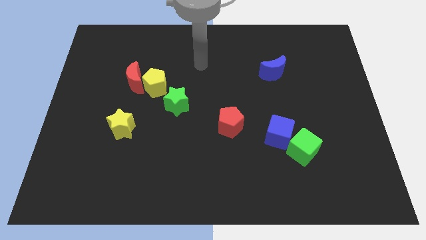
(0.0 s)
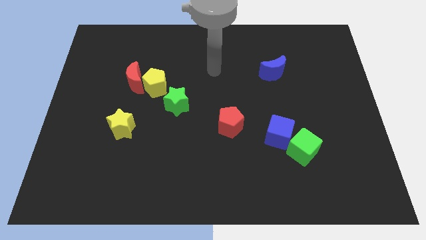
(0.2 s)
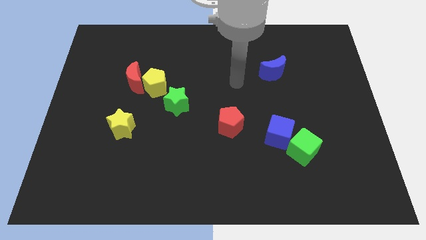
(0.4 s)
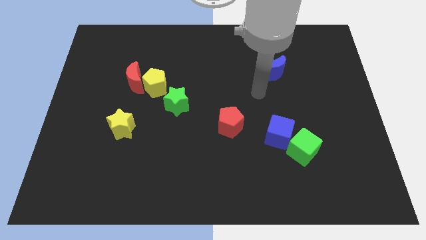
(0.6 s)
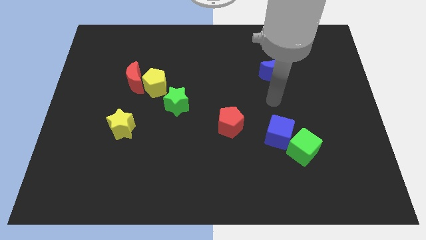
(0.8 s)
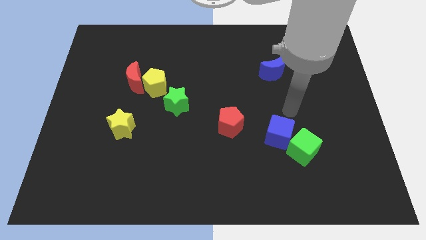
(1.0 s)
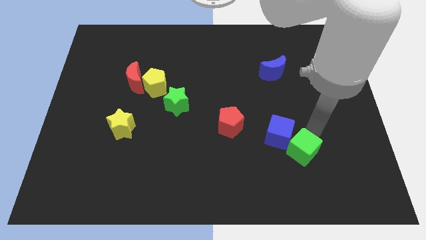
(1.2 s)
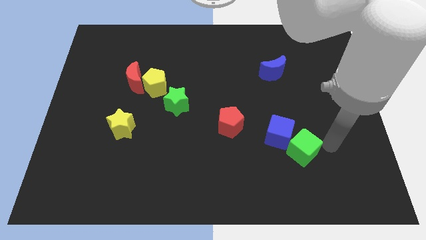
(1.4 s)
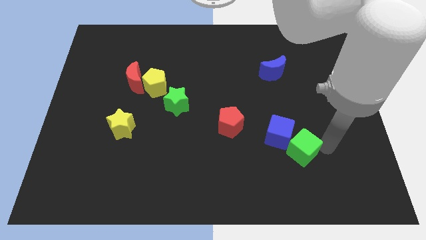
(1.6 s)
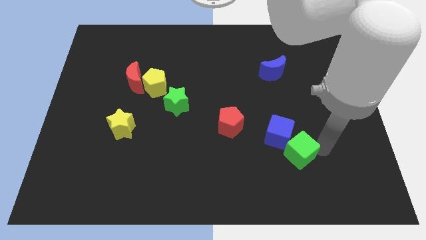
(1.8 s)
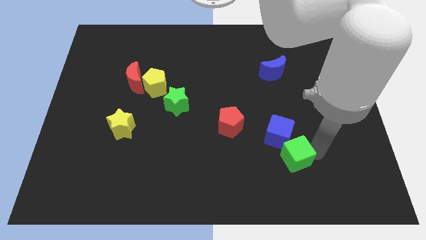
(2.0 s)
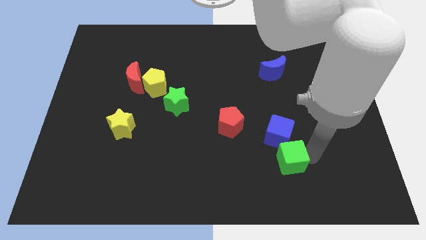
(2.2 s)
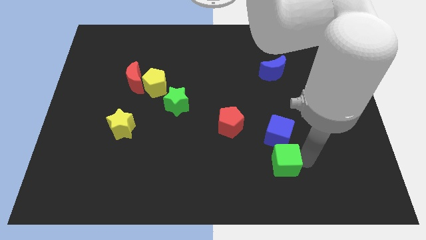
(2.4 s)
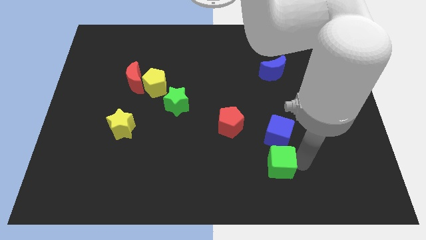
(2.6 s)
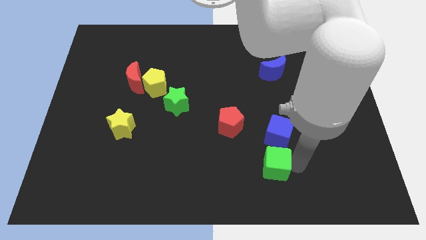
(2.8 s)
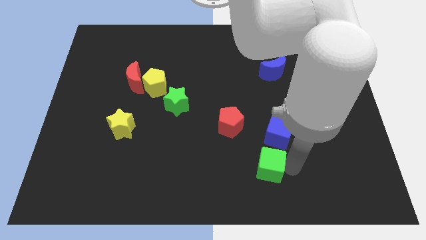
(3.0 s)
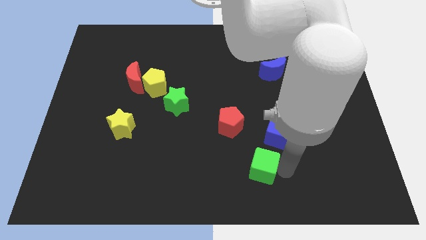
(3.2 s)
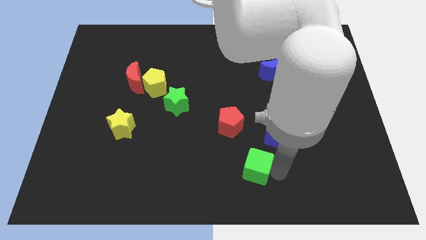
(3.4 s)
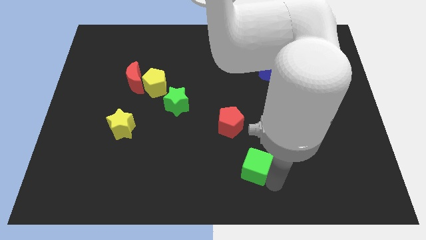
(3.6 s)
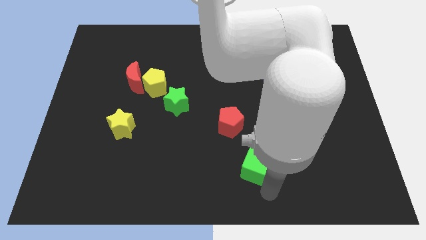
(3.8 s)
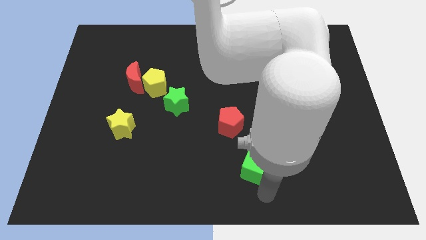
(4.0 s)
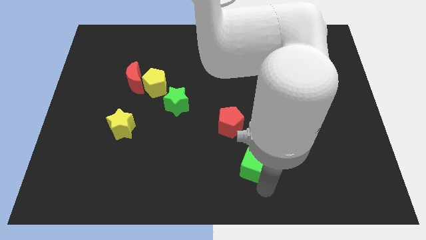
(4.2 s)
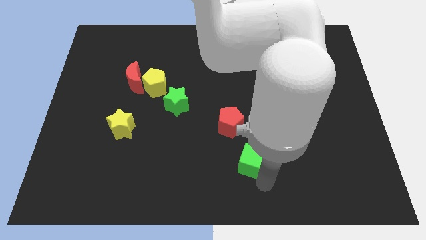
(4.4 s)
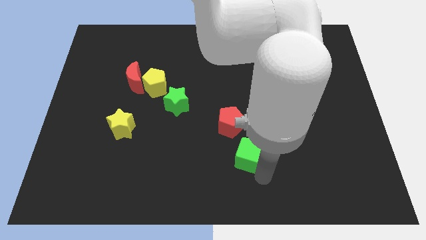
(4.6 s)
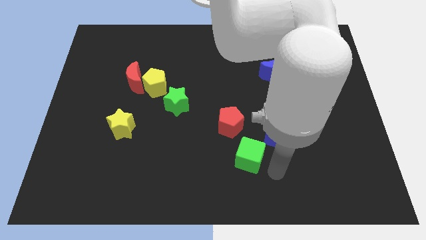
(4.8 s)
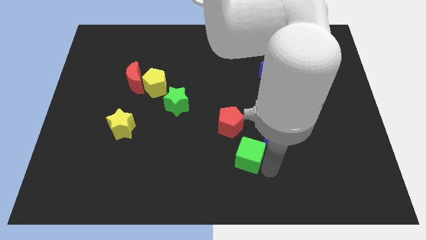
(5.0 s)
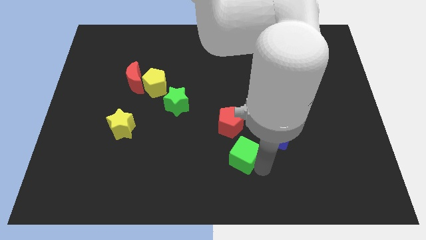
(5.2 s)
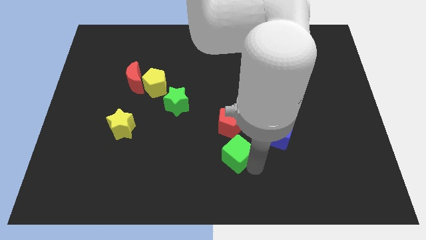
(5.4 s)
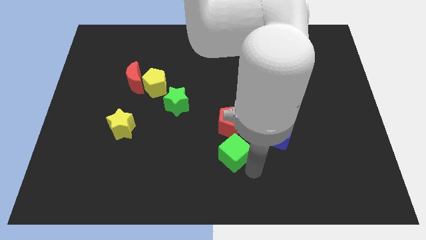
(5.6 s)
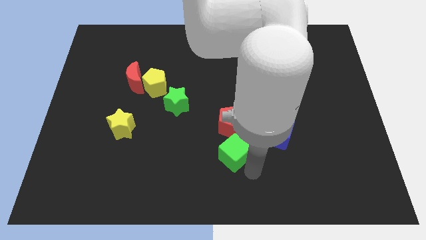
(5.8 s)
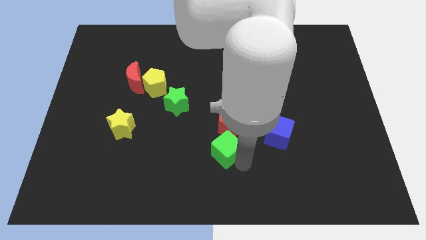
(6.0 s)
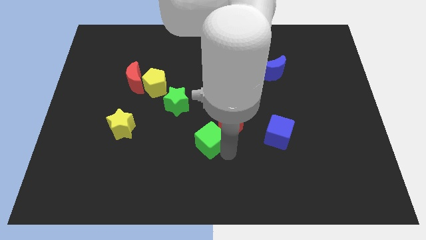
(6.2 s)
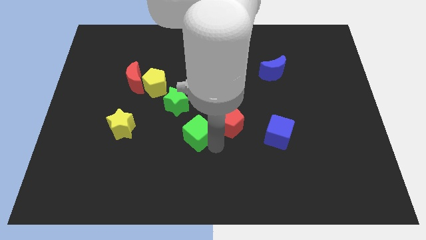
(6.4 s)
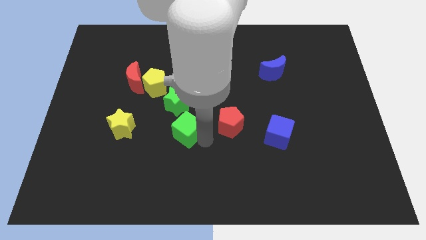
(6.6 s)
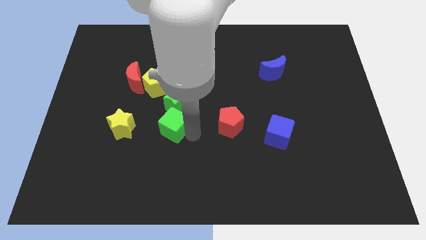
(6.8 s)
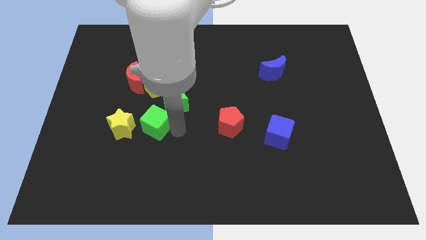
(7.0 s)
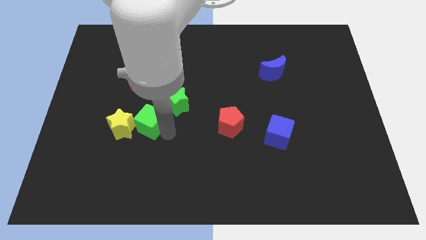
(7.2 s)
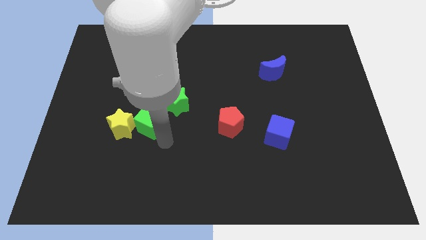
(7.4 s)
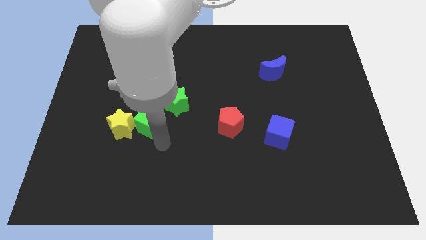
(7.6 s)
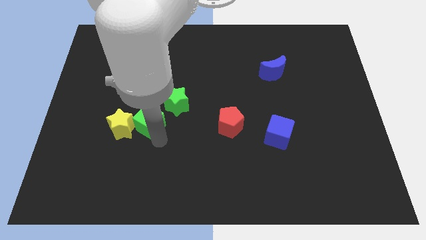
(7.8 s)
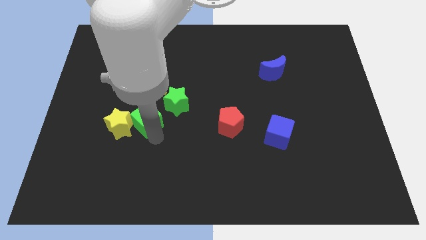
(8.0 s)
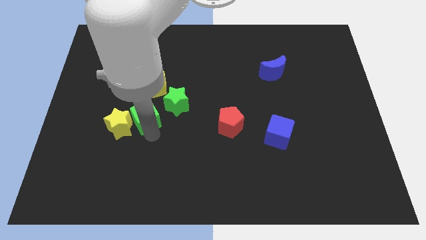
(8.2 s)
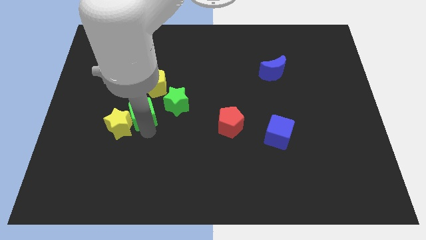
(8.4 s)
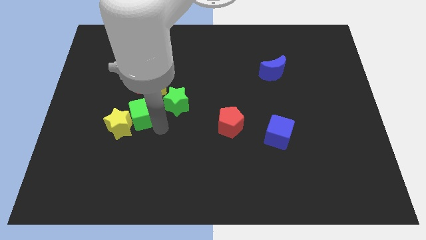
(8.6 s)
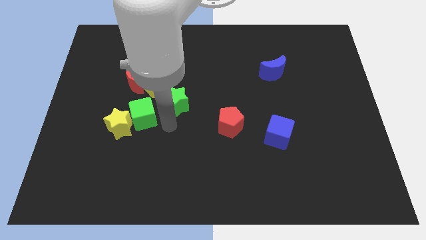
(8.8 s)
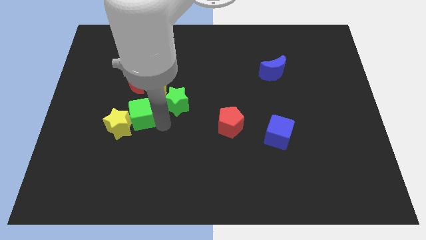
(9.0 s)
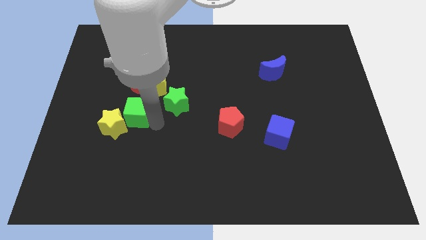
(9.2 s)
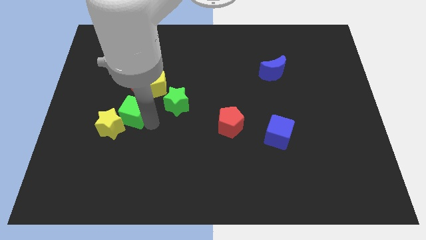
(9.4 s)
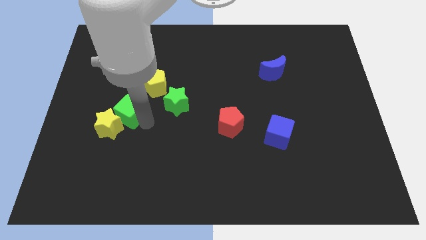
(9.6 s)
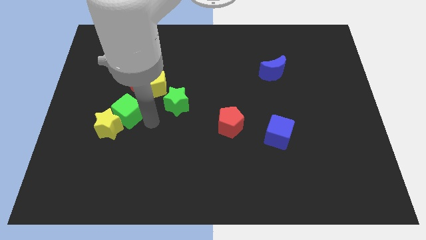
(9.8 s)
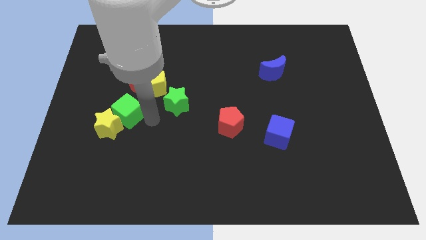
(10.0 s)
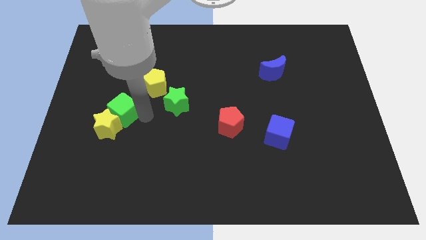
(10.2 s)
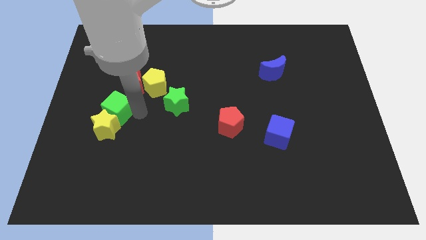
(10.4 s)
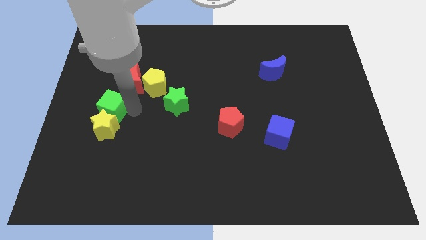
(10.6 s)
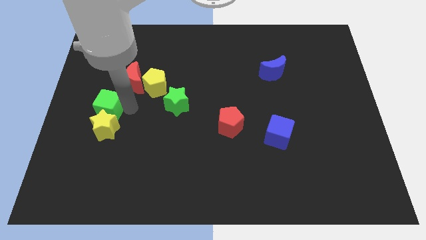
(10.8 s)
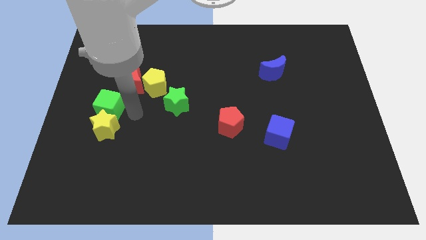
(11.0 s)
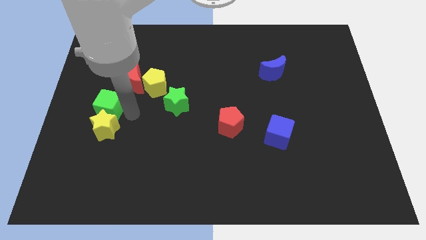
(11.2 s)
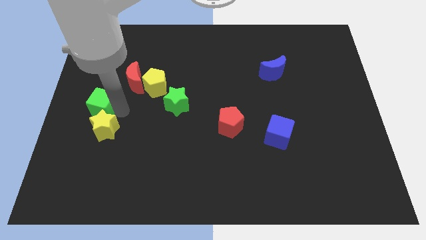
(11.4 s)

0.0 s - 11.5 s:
move the green cube to the center left

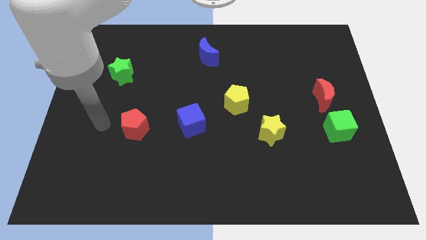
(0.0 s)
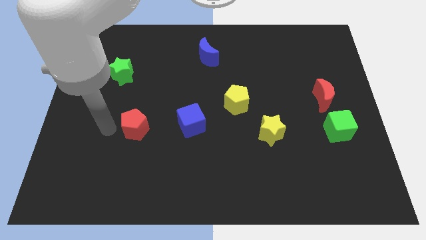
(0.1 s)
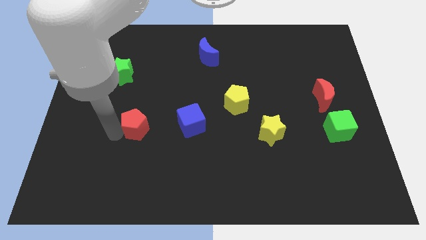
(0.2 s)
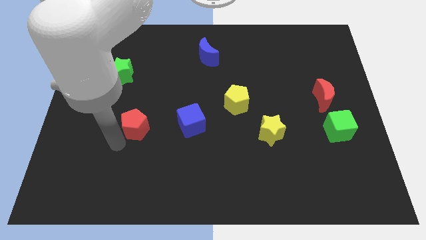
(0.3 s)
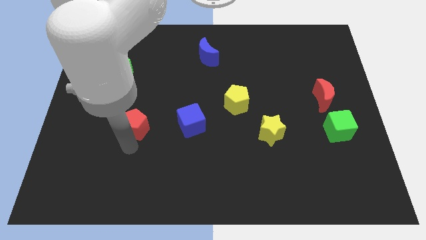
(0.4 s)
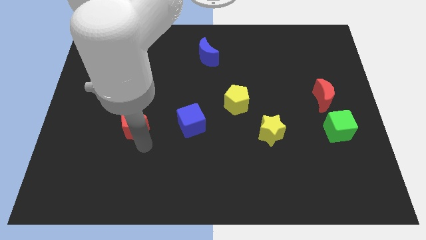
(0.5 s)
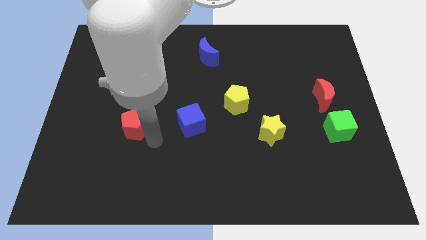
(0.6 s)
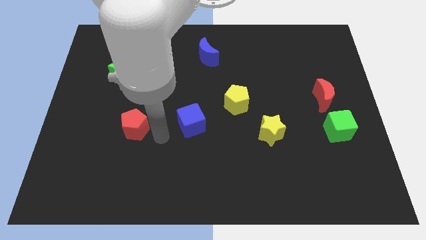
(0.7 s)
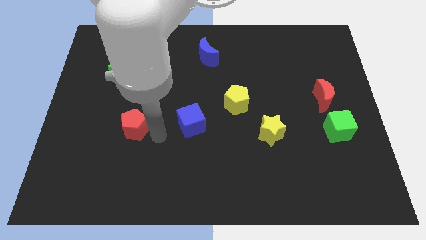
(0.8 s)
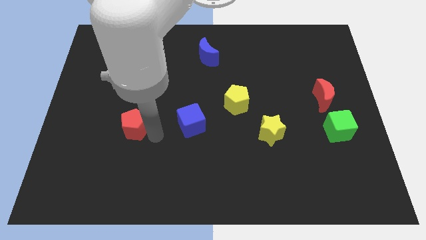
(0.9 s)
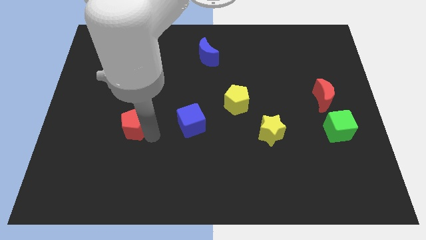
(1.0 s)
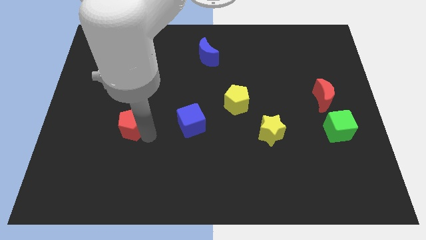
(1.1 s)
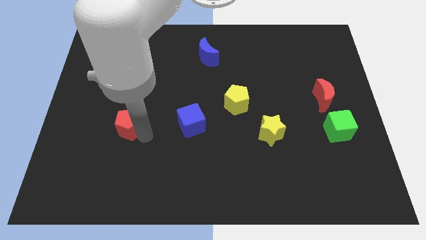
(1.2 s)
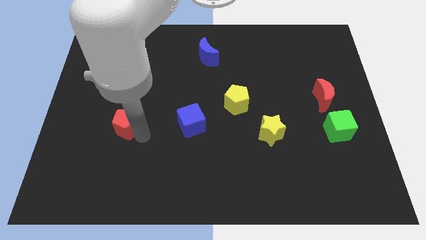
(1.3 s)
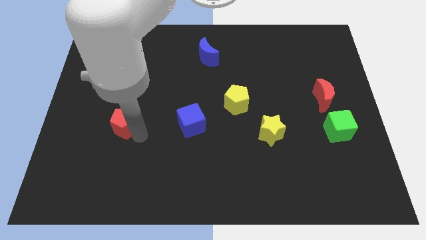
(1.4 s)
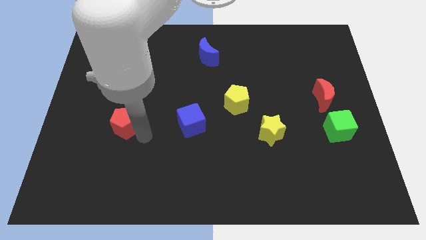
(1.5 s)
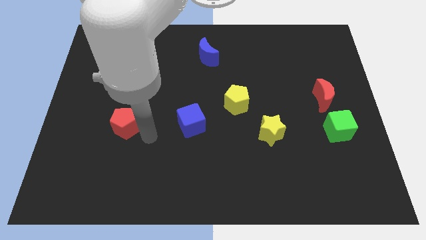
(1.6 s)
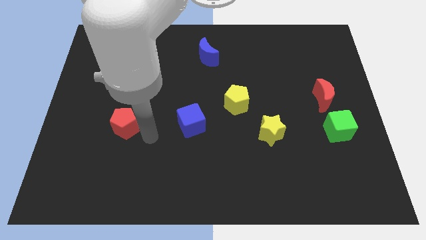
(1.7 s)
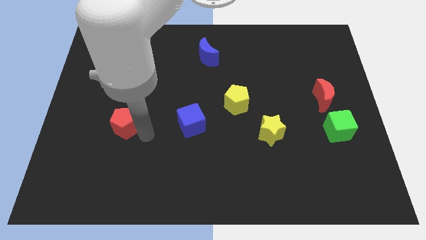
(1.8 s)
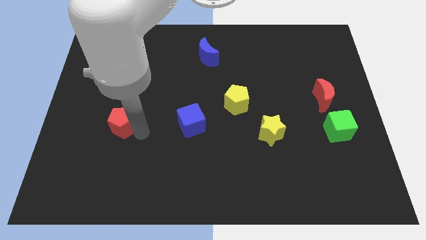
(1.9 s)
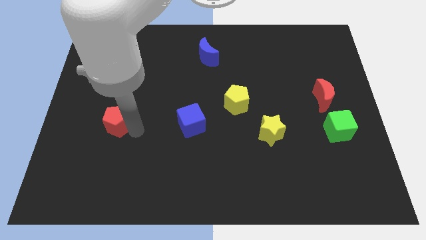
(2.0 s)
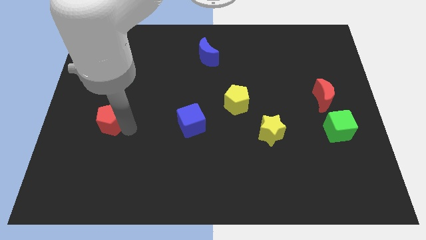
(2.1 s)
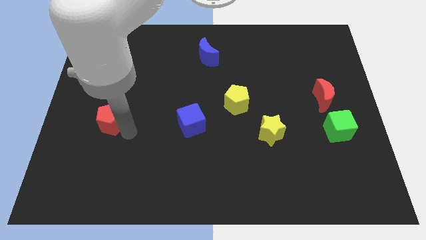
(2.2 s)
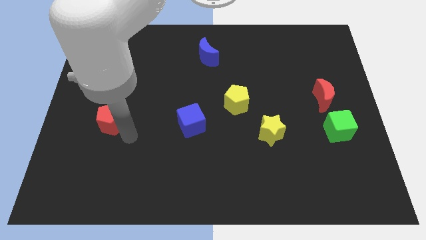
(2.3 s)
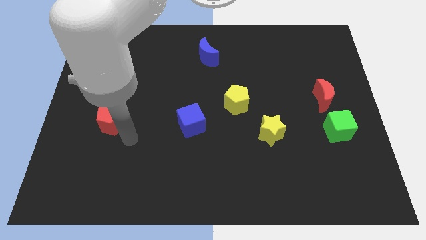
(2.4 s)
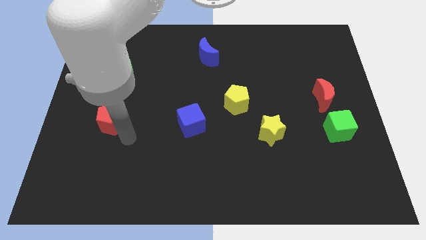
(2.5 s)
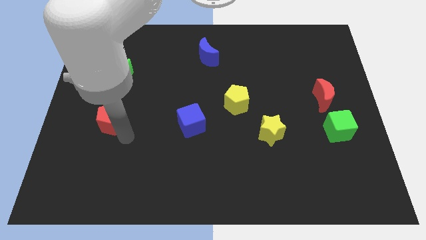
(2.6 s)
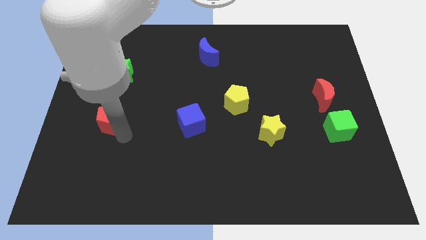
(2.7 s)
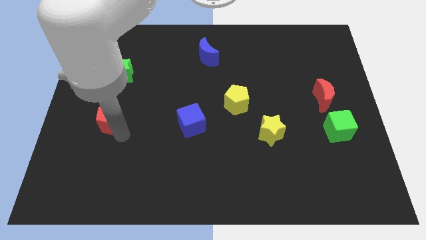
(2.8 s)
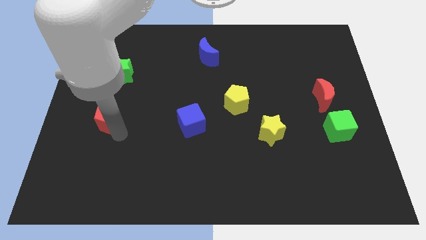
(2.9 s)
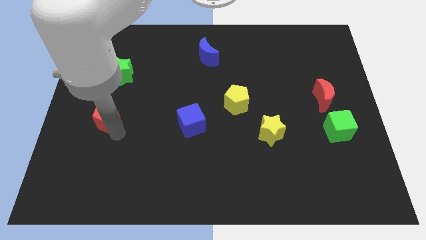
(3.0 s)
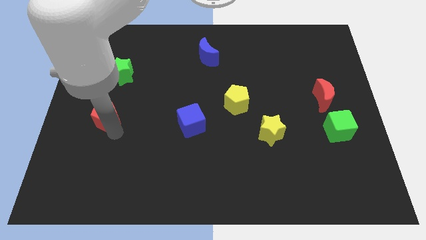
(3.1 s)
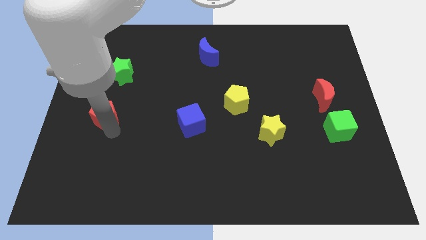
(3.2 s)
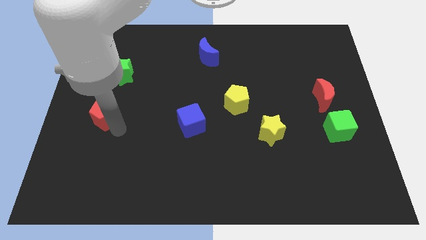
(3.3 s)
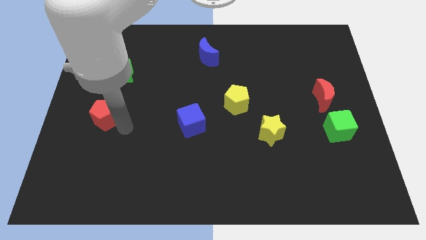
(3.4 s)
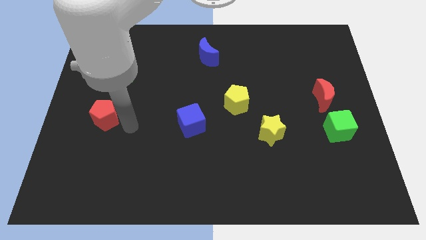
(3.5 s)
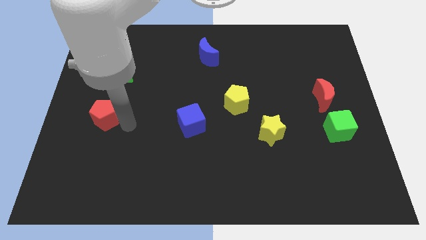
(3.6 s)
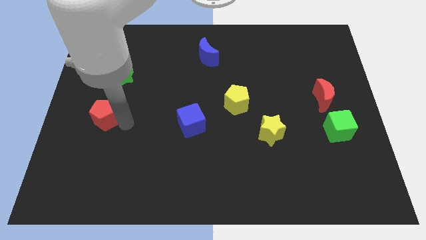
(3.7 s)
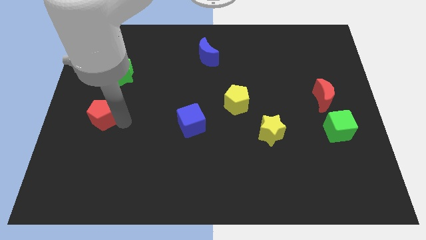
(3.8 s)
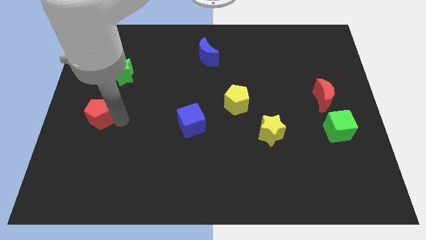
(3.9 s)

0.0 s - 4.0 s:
move the red pentagon to the center left
